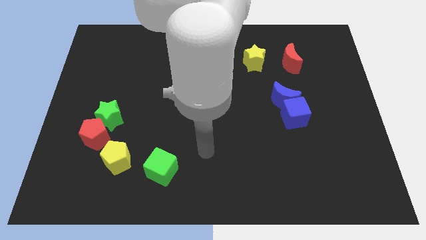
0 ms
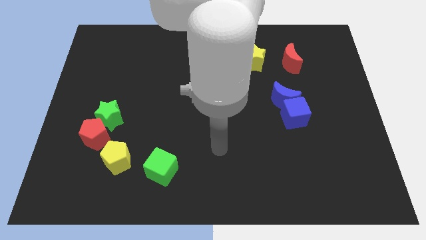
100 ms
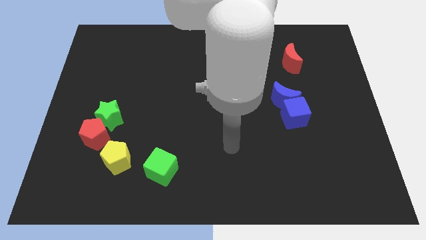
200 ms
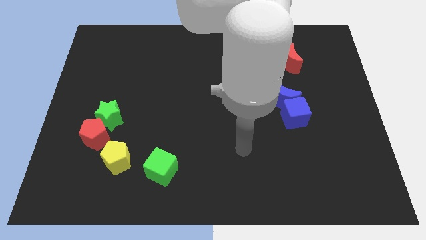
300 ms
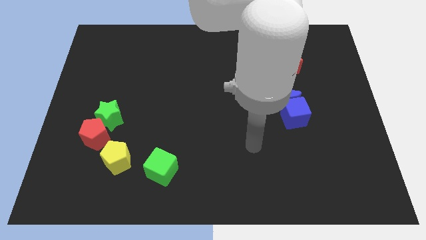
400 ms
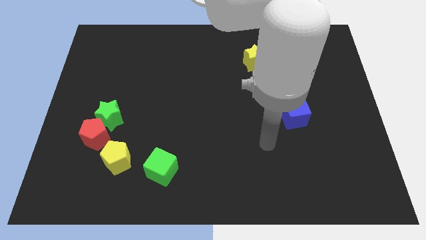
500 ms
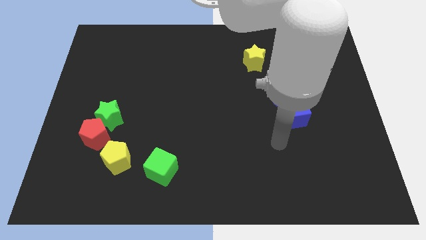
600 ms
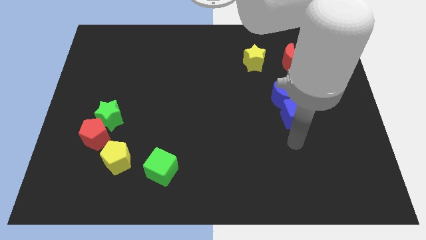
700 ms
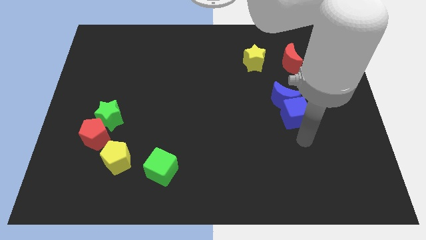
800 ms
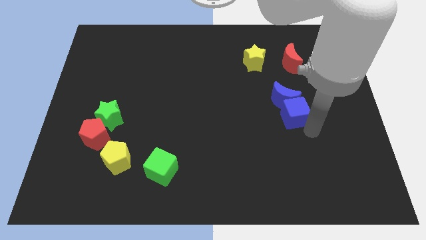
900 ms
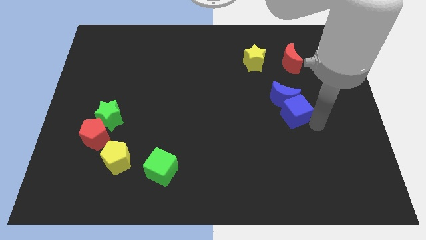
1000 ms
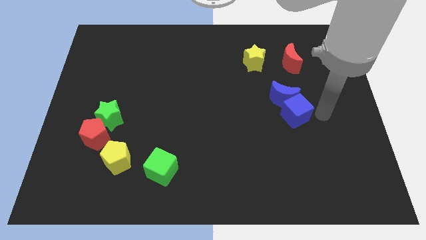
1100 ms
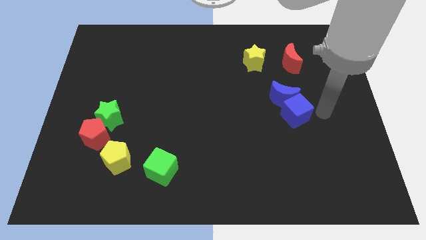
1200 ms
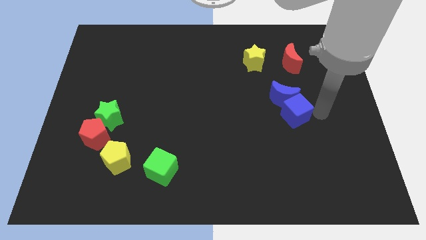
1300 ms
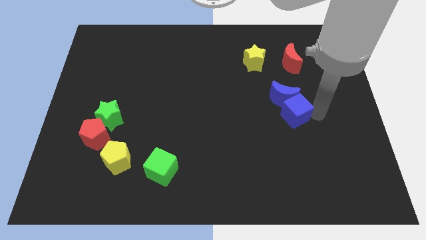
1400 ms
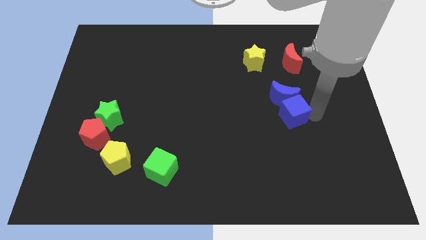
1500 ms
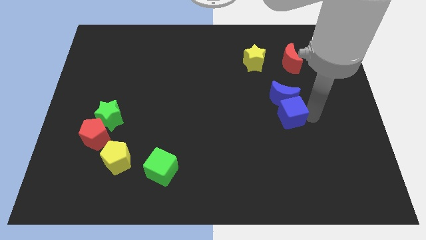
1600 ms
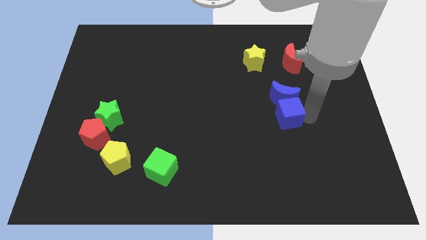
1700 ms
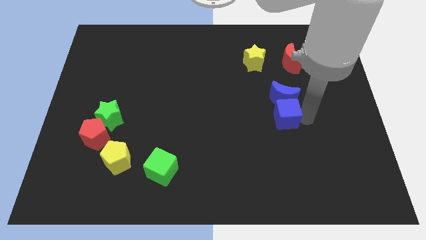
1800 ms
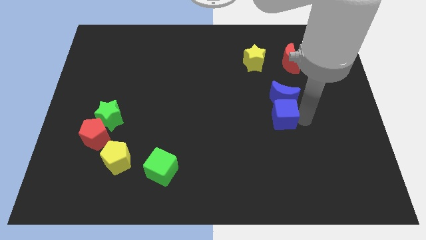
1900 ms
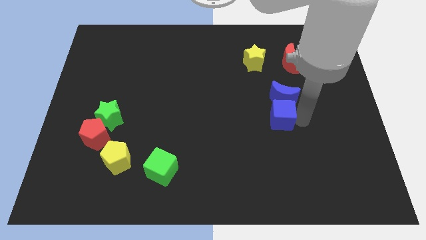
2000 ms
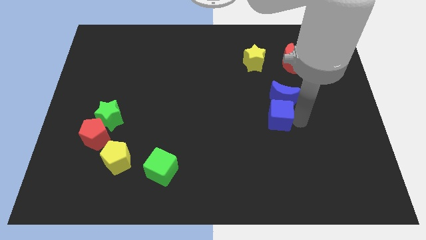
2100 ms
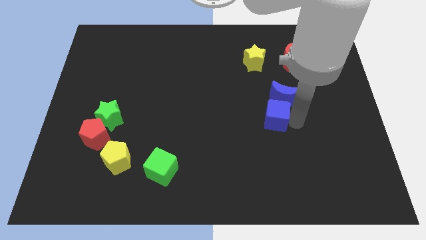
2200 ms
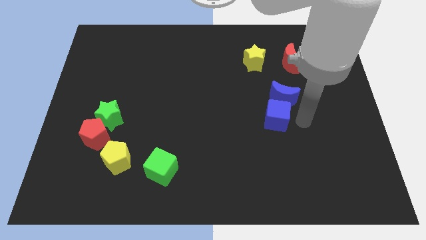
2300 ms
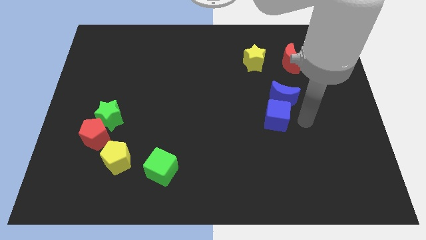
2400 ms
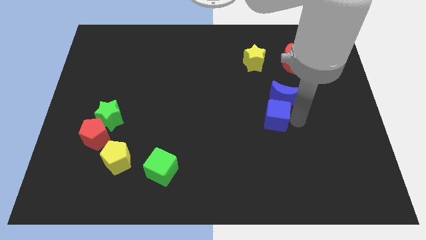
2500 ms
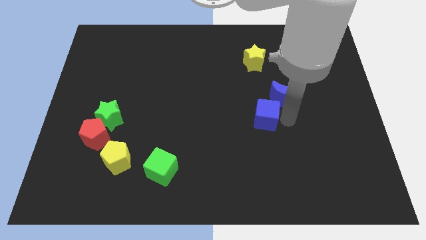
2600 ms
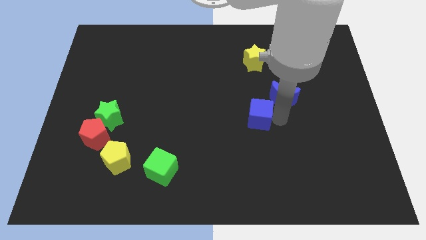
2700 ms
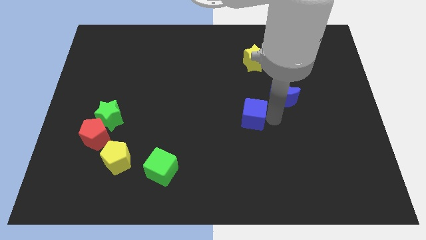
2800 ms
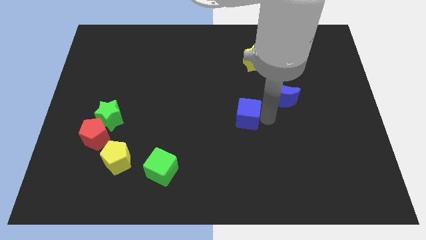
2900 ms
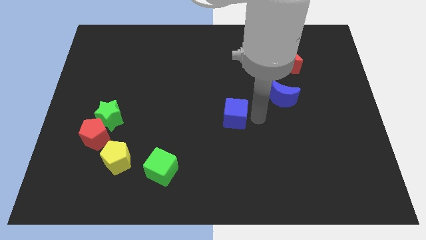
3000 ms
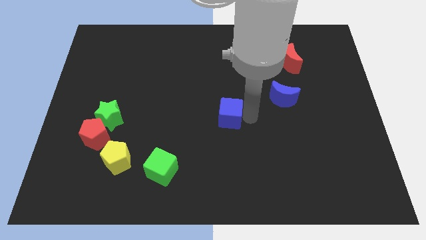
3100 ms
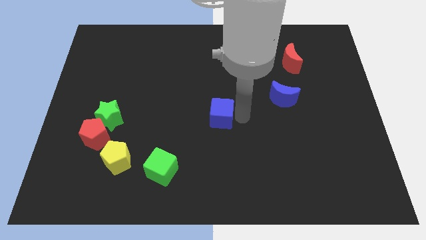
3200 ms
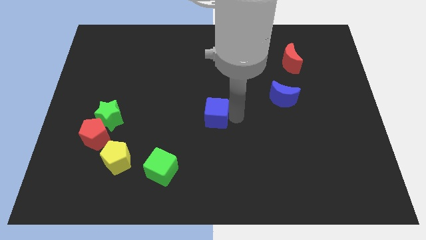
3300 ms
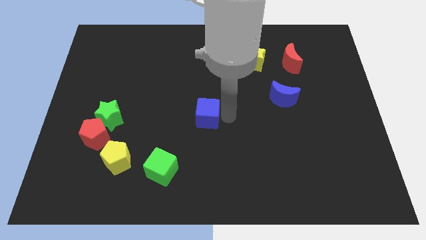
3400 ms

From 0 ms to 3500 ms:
push the blue cube left

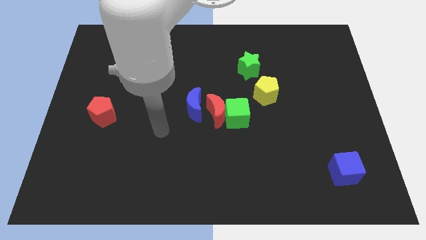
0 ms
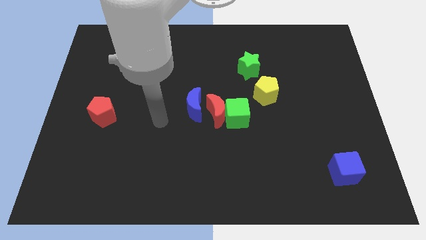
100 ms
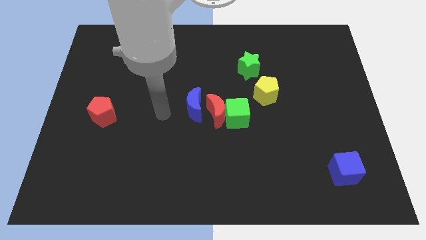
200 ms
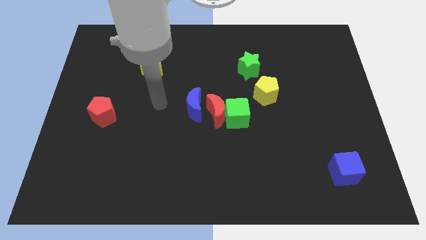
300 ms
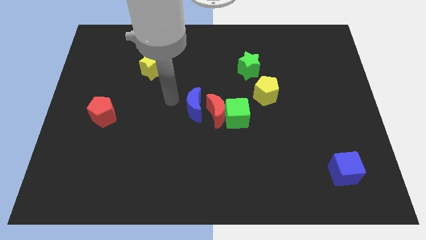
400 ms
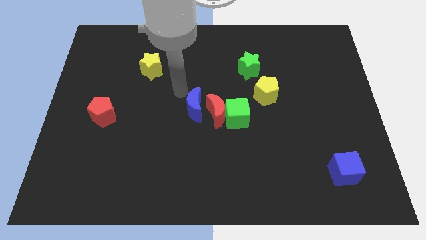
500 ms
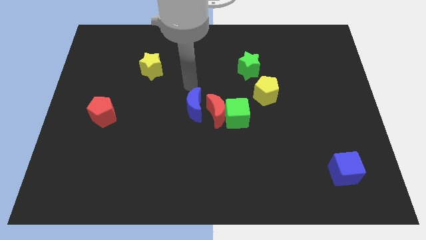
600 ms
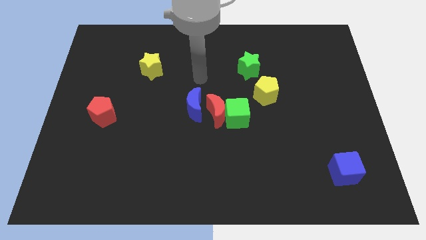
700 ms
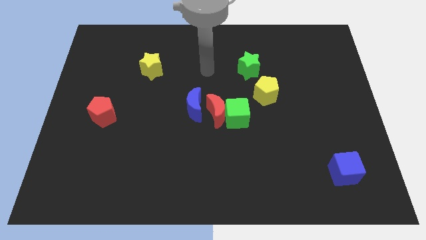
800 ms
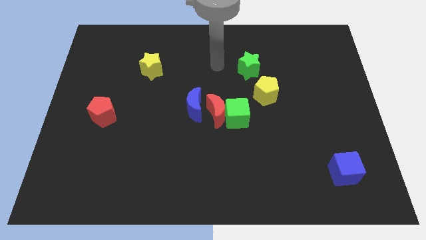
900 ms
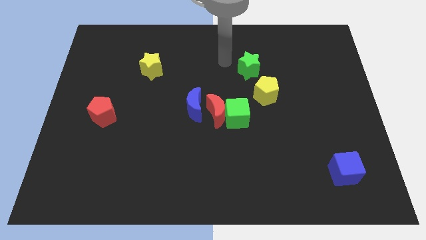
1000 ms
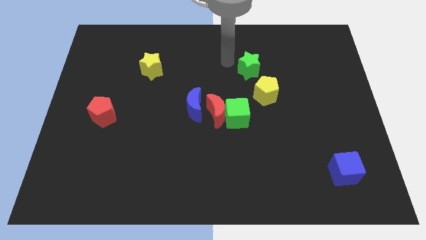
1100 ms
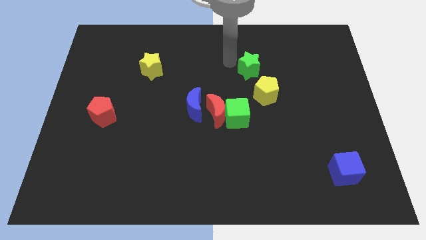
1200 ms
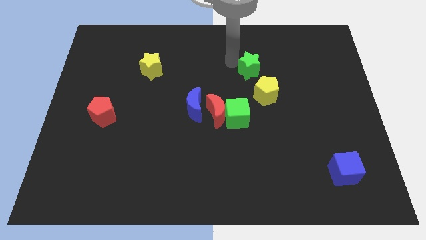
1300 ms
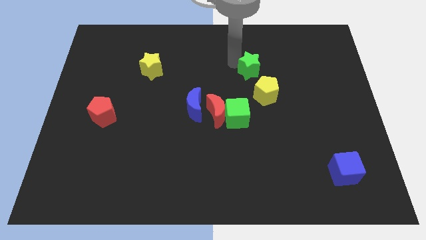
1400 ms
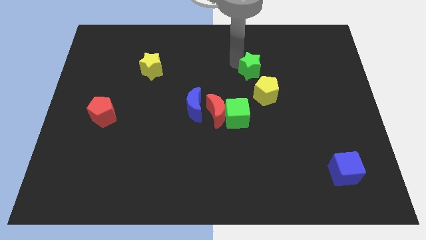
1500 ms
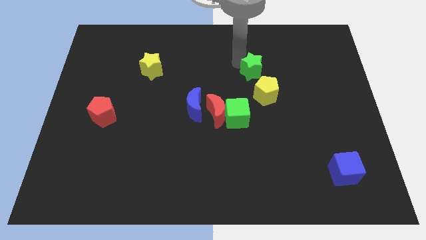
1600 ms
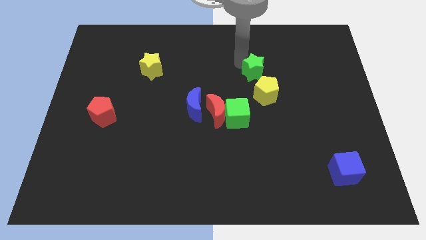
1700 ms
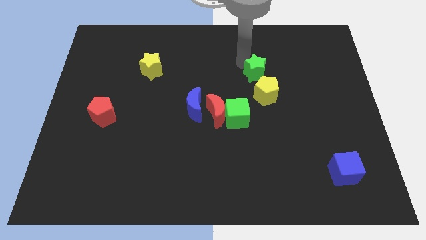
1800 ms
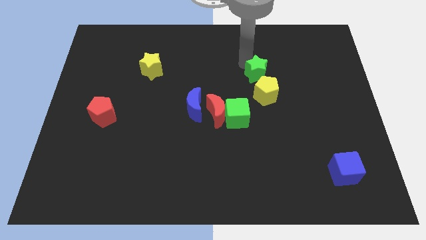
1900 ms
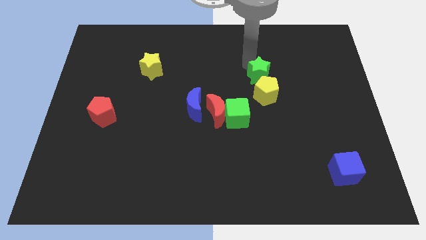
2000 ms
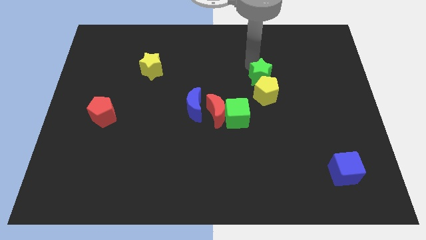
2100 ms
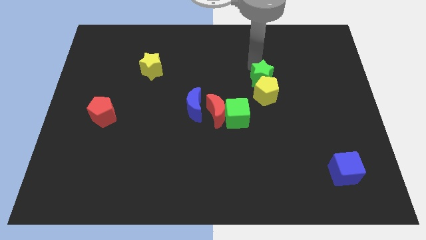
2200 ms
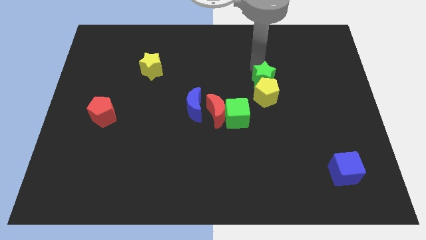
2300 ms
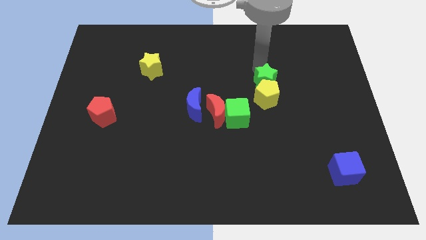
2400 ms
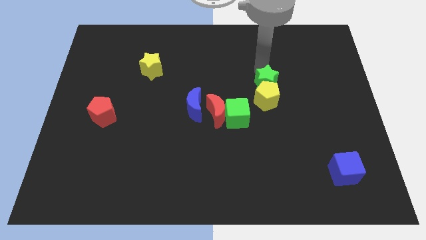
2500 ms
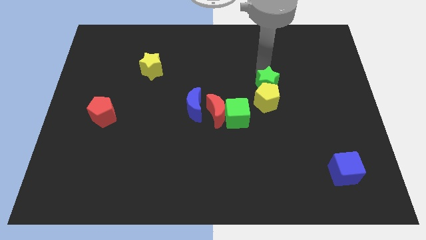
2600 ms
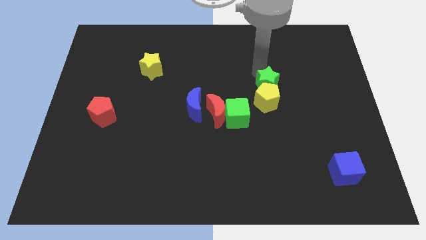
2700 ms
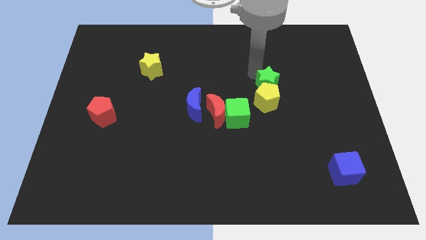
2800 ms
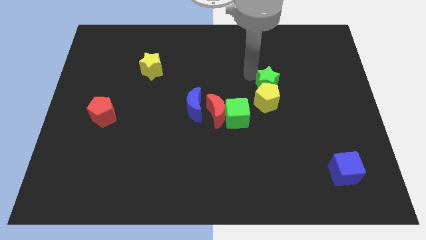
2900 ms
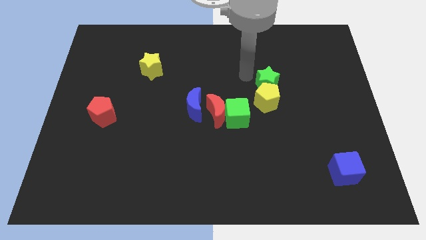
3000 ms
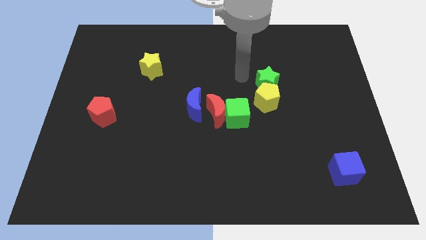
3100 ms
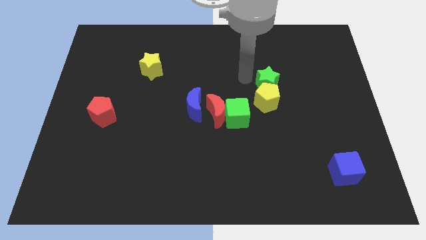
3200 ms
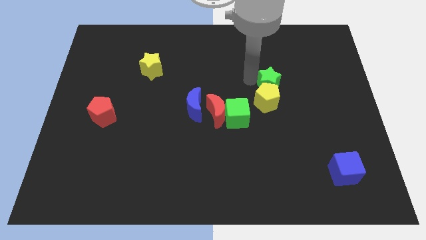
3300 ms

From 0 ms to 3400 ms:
move the green star somewhat down and to the right

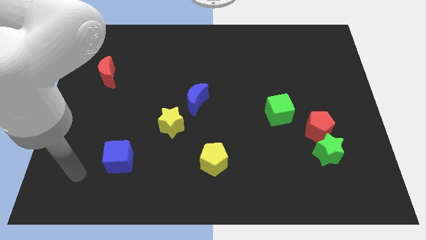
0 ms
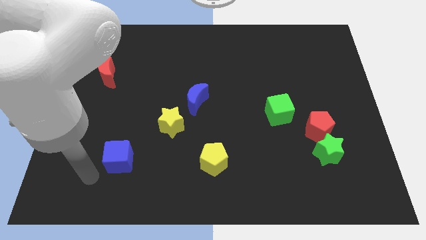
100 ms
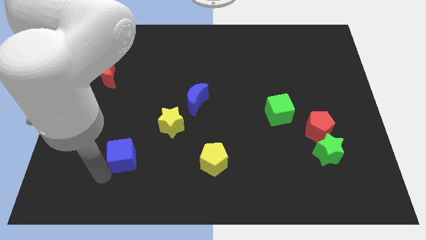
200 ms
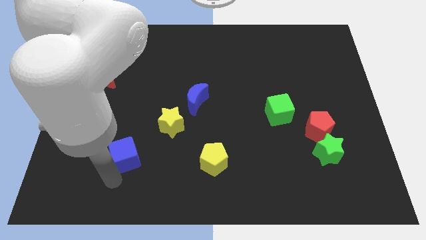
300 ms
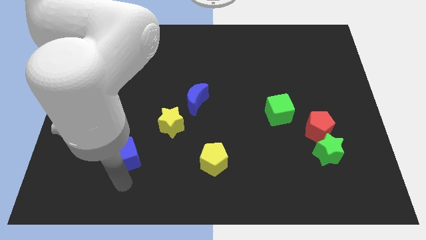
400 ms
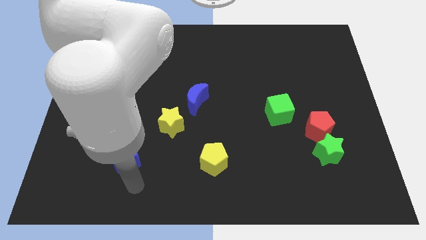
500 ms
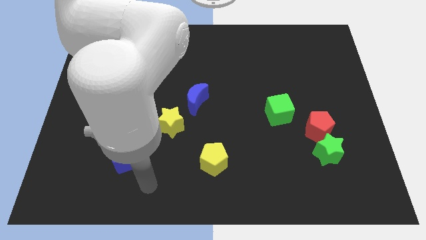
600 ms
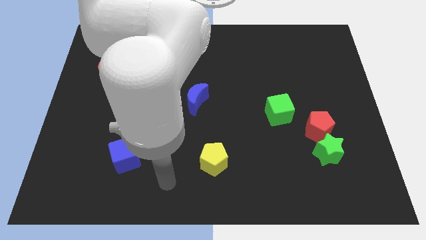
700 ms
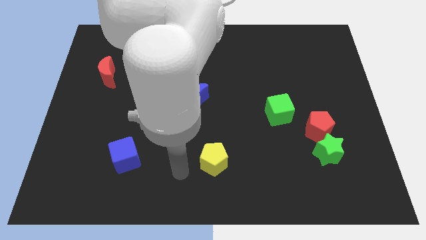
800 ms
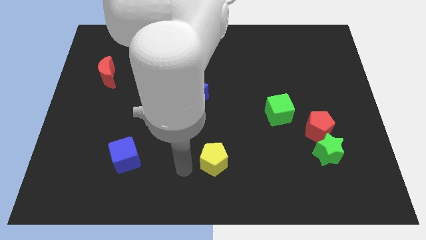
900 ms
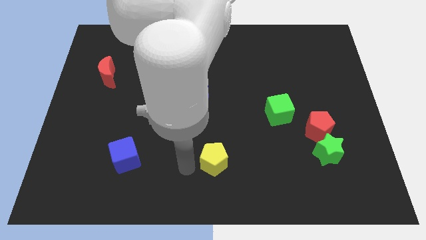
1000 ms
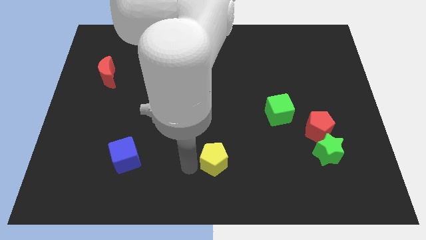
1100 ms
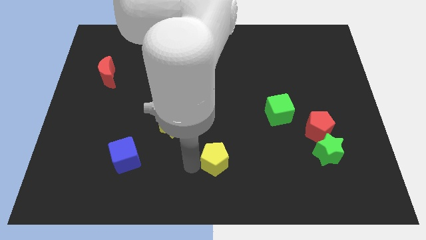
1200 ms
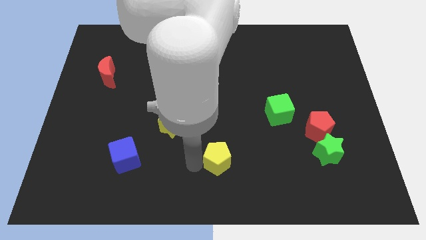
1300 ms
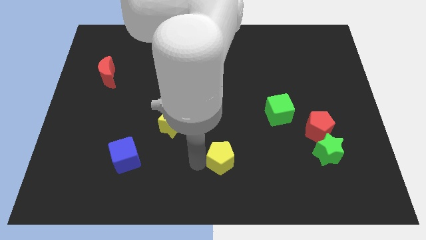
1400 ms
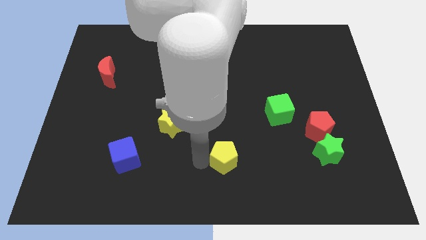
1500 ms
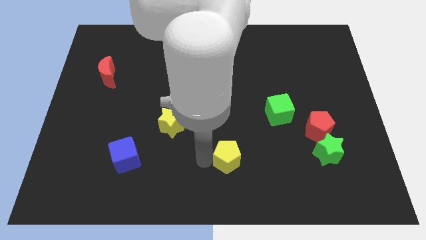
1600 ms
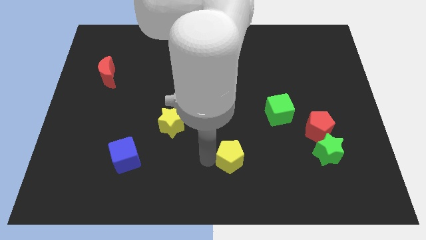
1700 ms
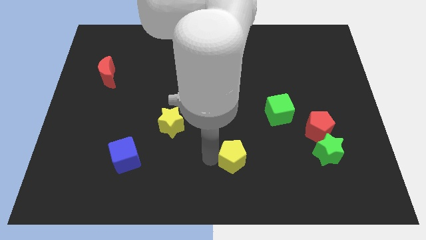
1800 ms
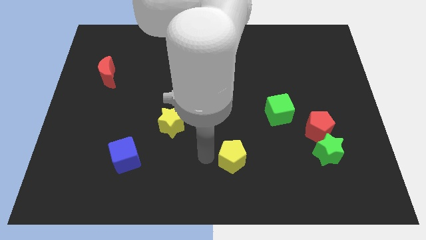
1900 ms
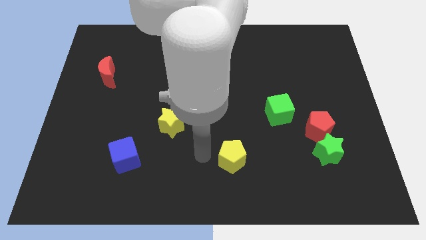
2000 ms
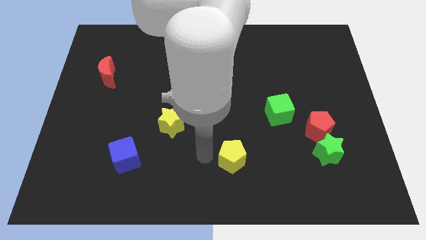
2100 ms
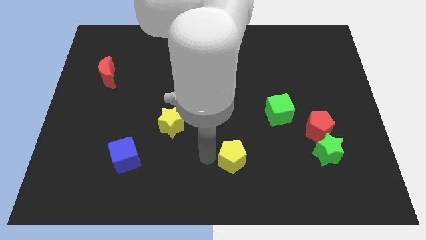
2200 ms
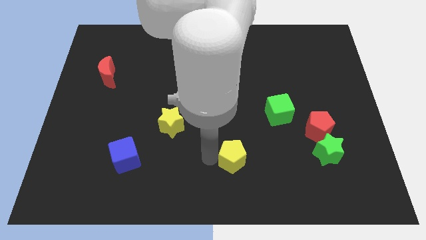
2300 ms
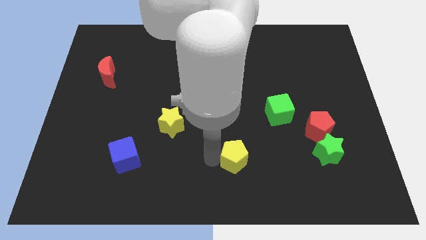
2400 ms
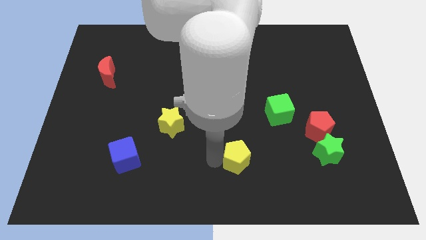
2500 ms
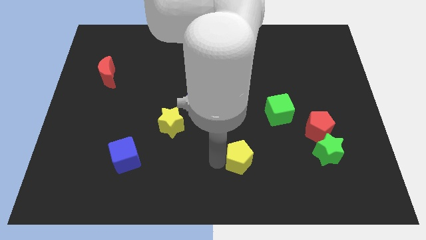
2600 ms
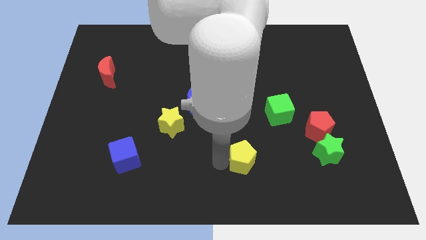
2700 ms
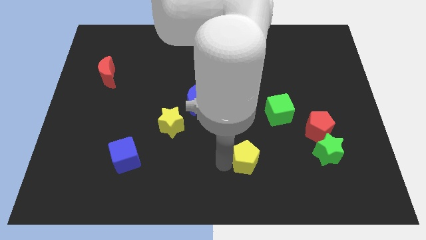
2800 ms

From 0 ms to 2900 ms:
move the yellow pentagon right a little
